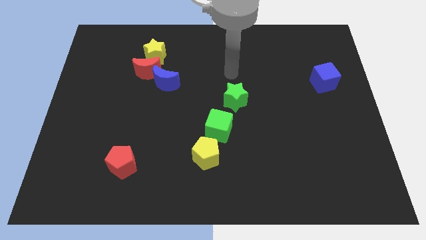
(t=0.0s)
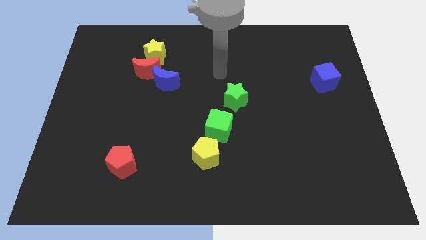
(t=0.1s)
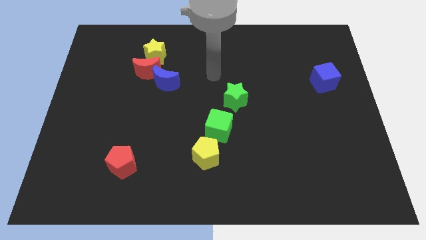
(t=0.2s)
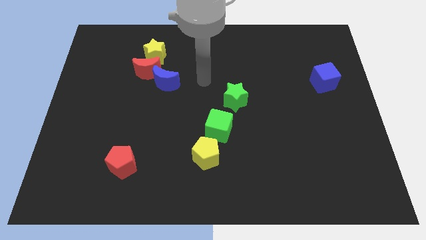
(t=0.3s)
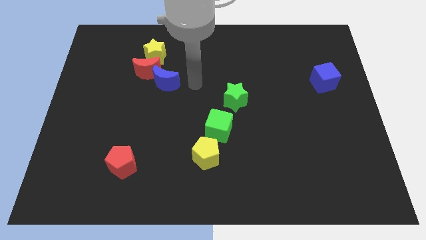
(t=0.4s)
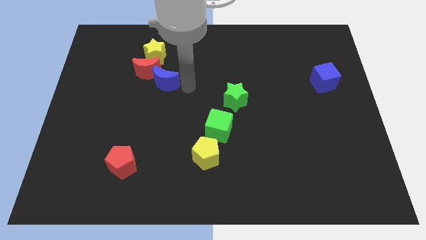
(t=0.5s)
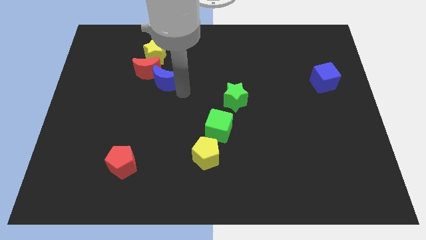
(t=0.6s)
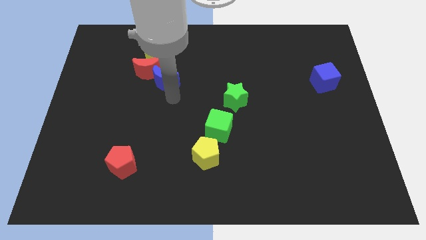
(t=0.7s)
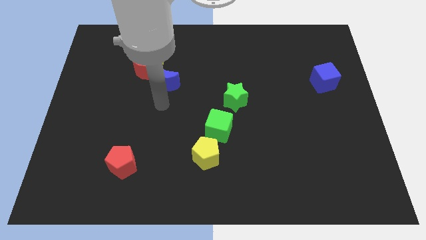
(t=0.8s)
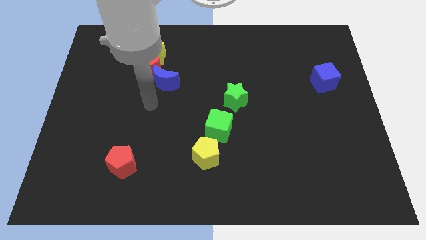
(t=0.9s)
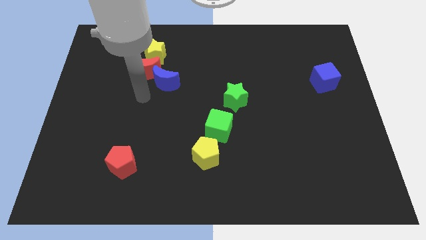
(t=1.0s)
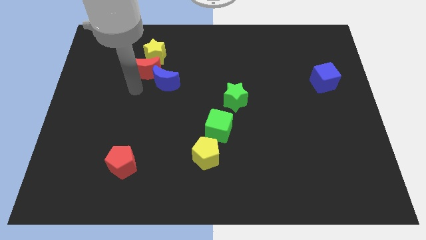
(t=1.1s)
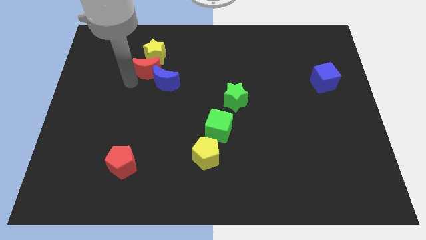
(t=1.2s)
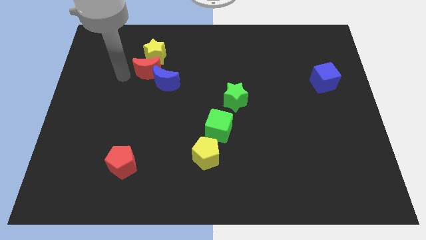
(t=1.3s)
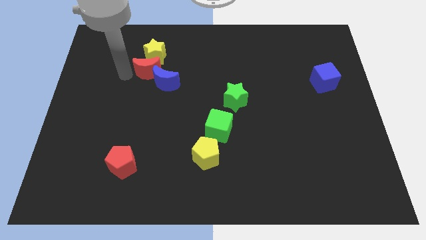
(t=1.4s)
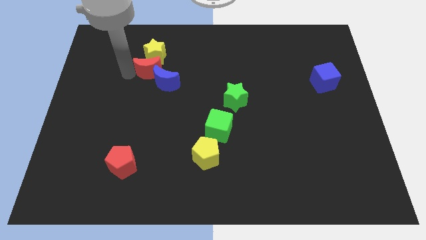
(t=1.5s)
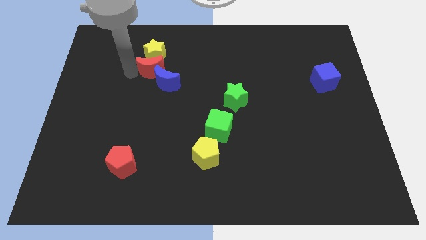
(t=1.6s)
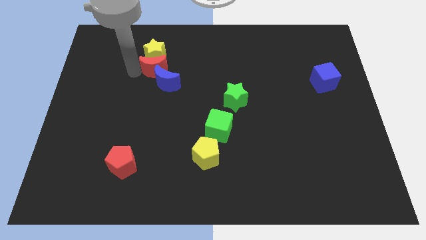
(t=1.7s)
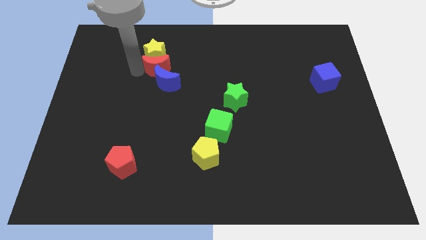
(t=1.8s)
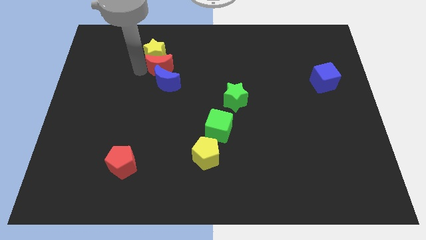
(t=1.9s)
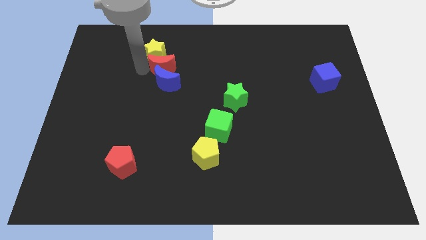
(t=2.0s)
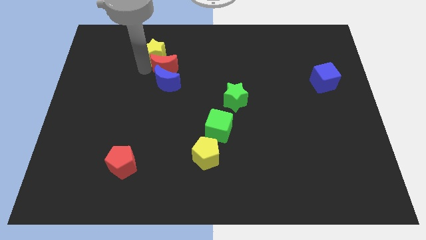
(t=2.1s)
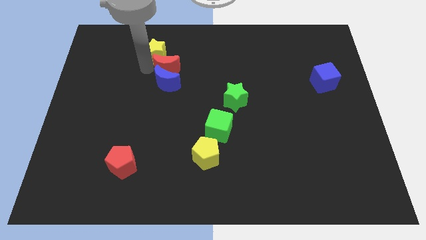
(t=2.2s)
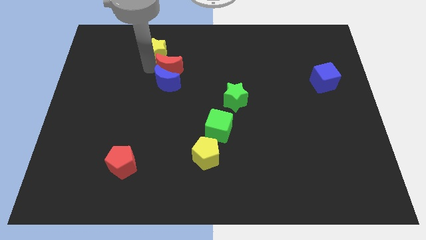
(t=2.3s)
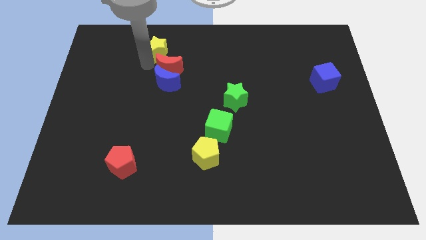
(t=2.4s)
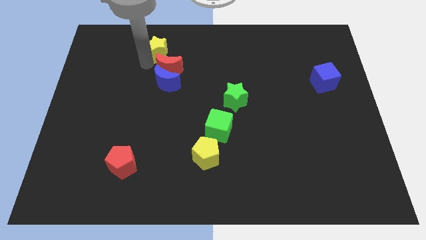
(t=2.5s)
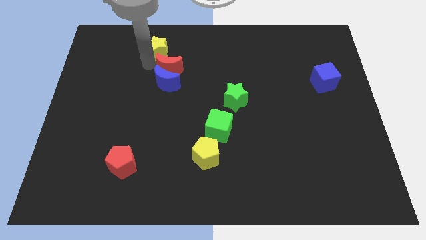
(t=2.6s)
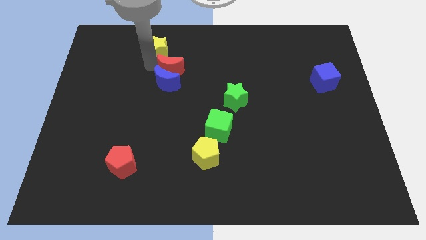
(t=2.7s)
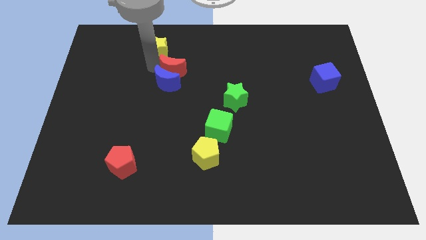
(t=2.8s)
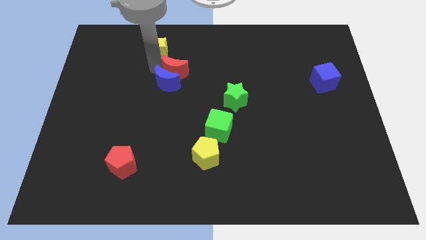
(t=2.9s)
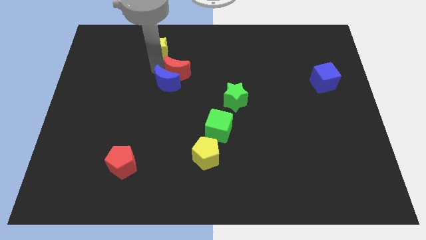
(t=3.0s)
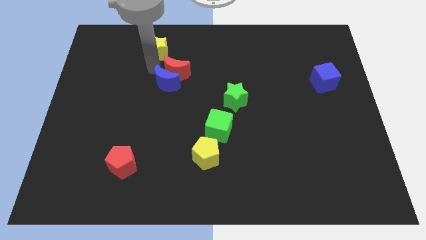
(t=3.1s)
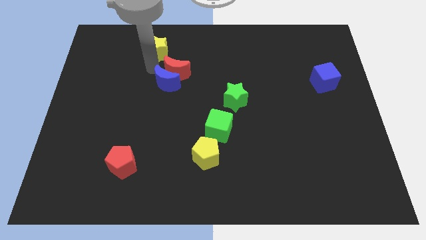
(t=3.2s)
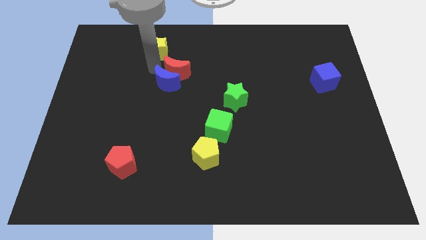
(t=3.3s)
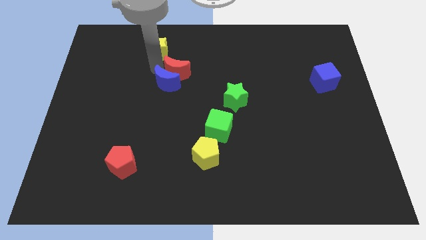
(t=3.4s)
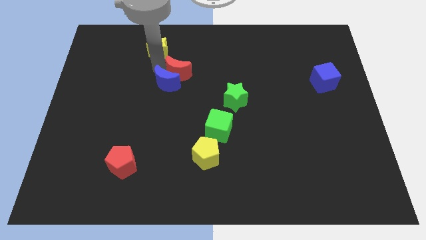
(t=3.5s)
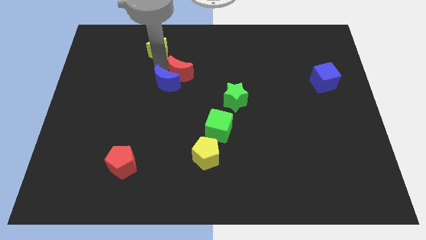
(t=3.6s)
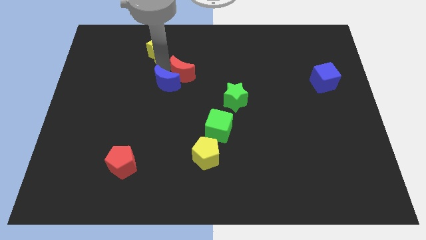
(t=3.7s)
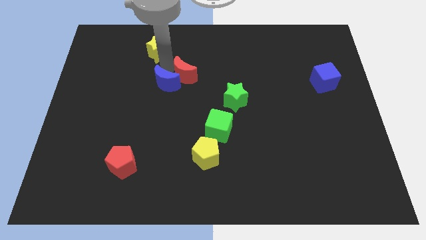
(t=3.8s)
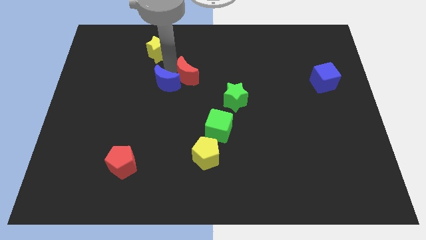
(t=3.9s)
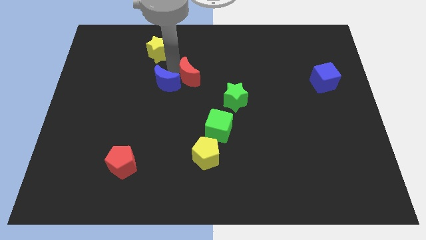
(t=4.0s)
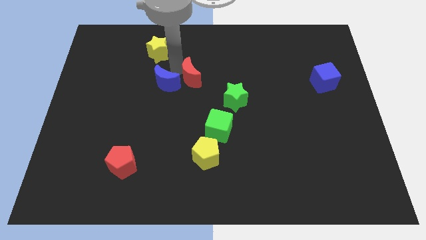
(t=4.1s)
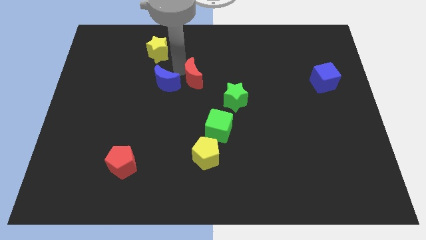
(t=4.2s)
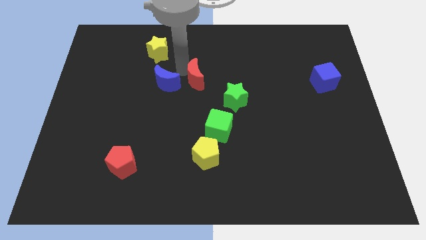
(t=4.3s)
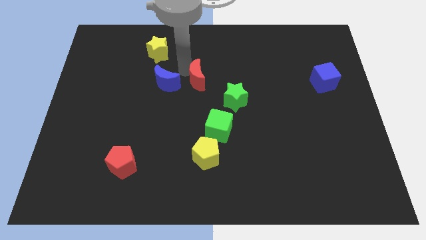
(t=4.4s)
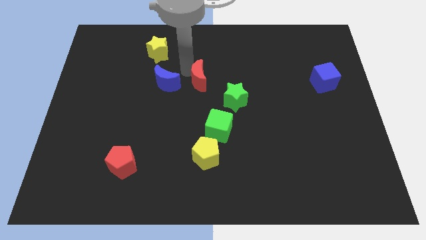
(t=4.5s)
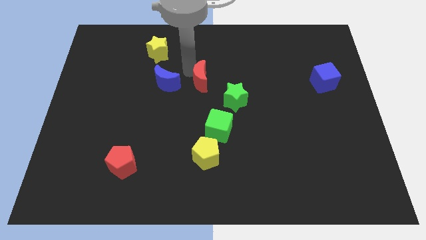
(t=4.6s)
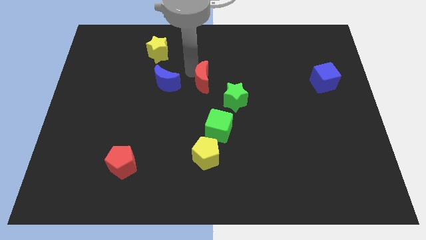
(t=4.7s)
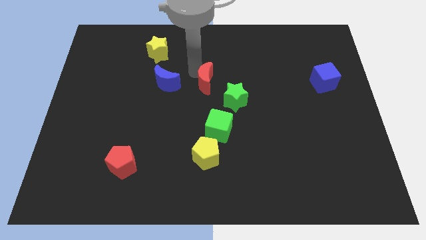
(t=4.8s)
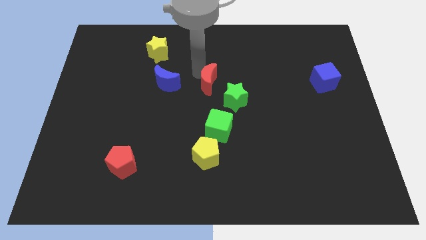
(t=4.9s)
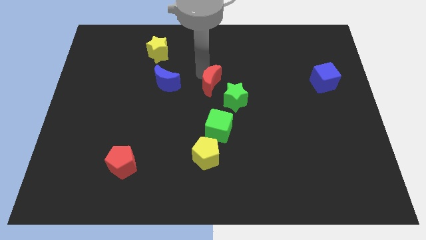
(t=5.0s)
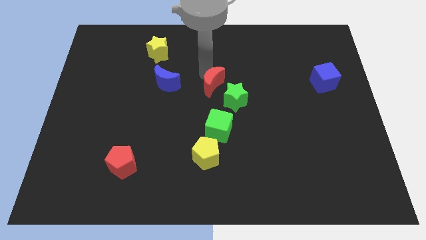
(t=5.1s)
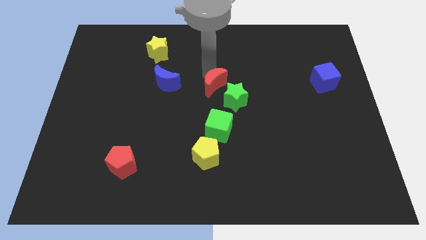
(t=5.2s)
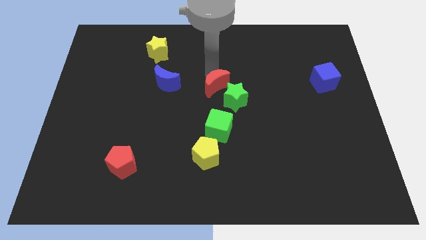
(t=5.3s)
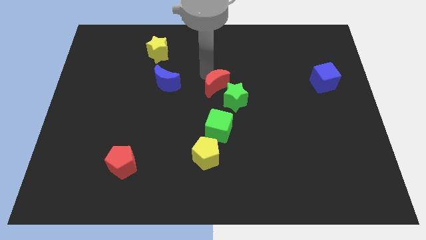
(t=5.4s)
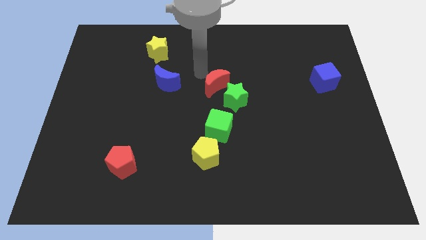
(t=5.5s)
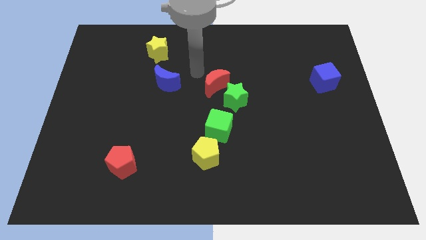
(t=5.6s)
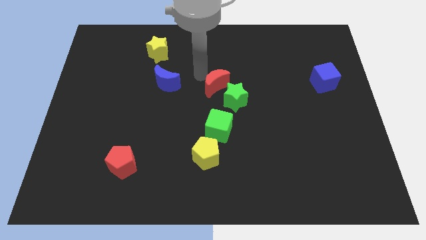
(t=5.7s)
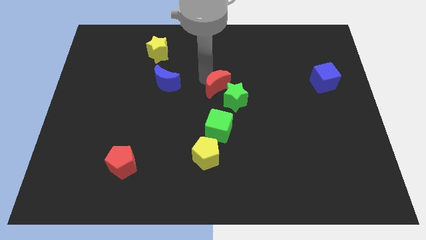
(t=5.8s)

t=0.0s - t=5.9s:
slide the red moon to the green star

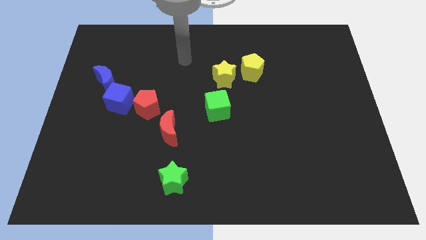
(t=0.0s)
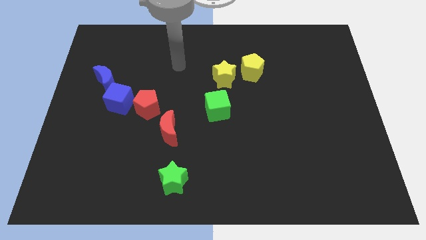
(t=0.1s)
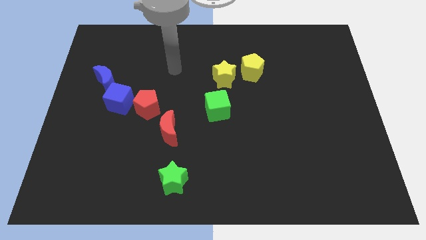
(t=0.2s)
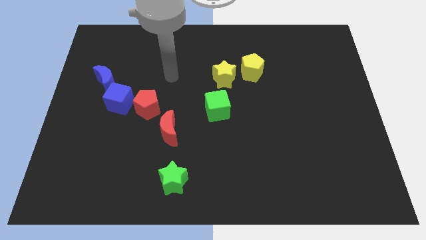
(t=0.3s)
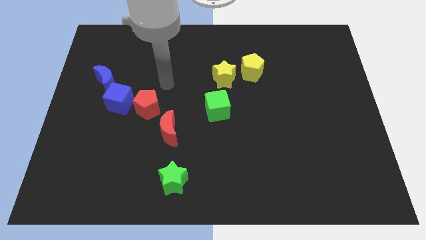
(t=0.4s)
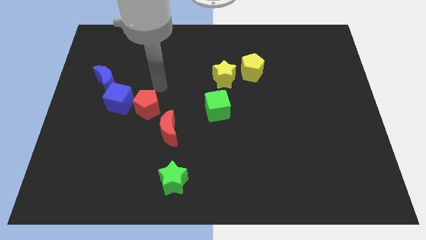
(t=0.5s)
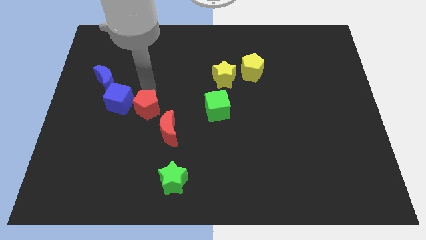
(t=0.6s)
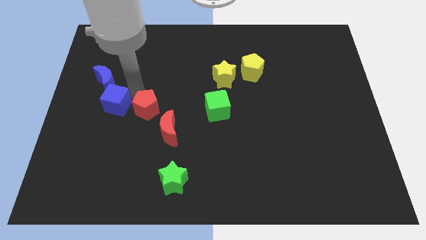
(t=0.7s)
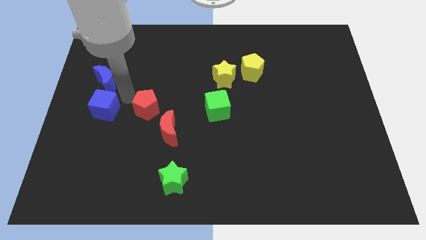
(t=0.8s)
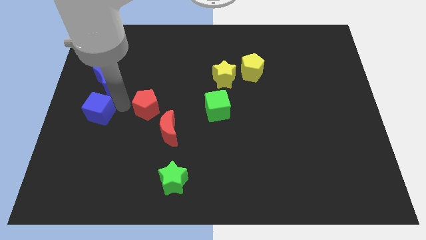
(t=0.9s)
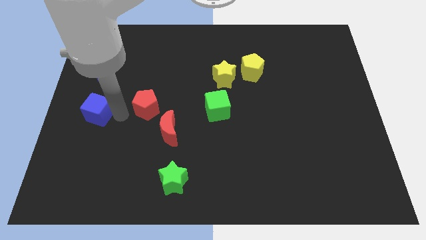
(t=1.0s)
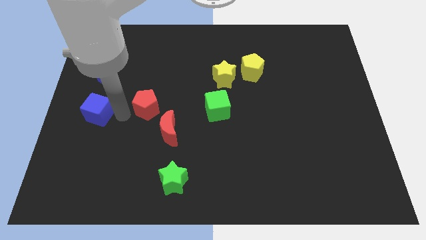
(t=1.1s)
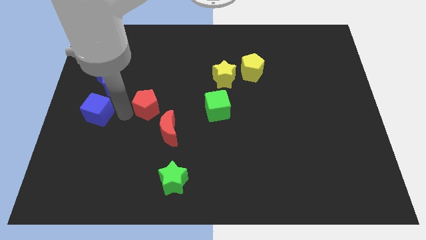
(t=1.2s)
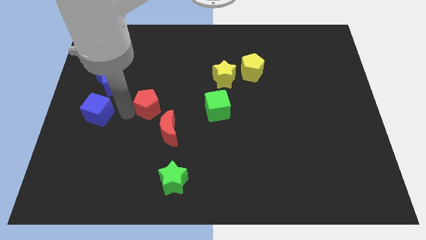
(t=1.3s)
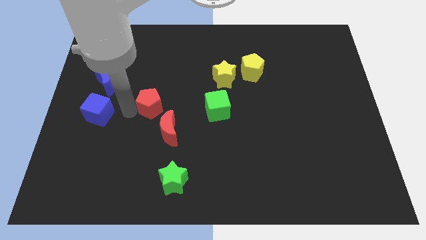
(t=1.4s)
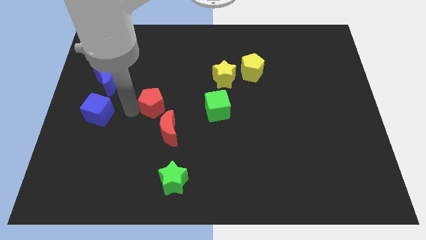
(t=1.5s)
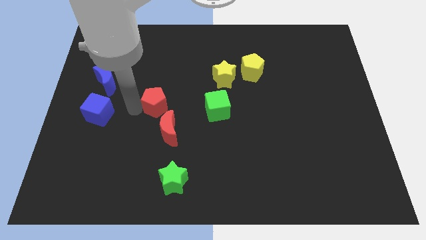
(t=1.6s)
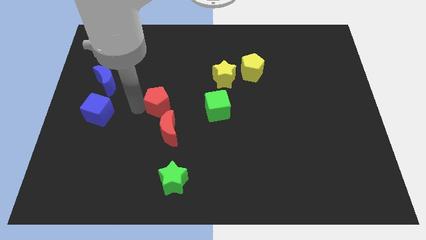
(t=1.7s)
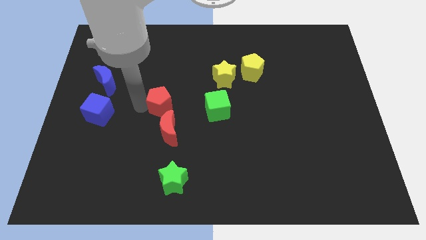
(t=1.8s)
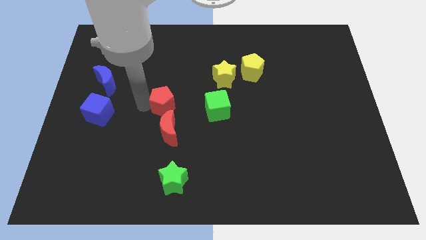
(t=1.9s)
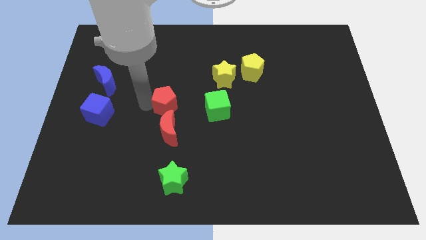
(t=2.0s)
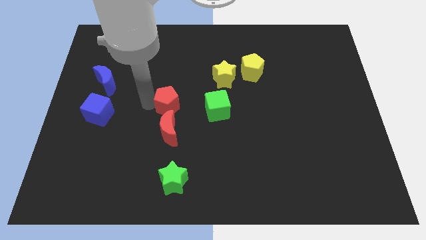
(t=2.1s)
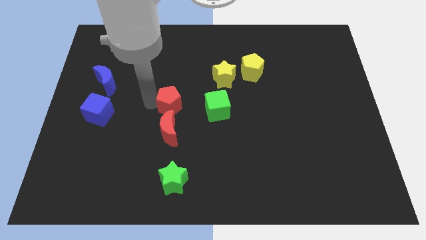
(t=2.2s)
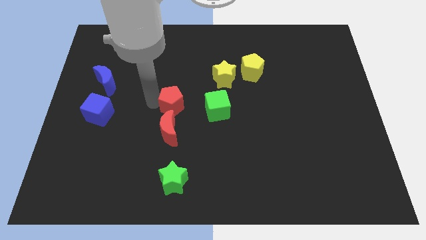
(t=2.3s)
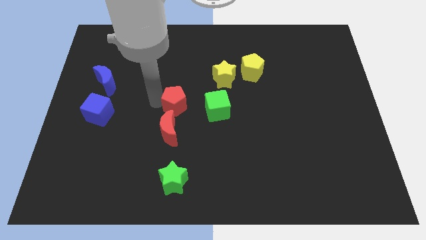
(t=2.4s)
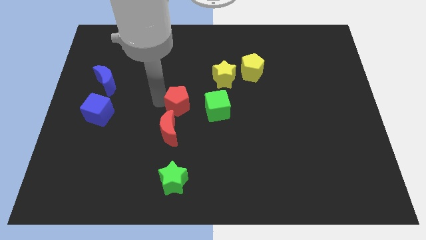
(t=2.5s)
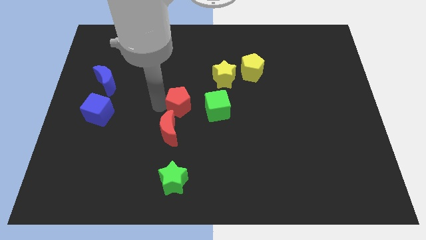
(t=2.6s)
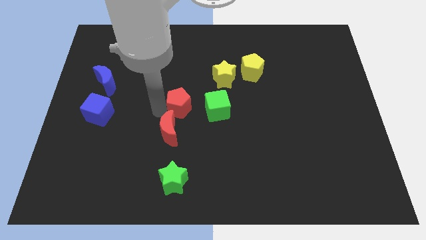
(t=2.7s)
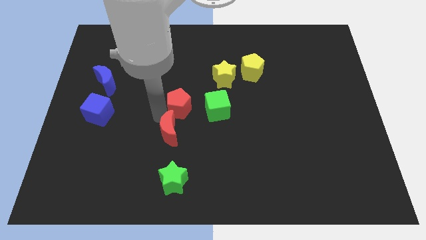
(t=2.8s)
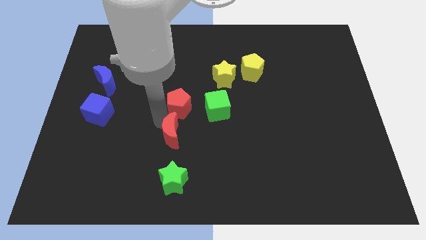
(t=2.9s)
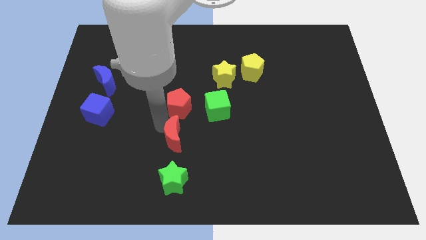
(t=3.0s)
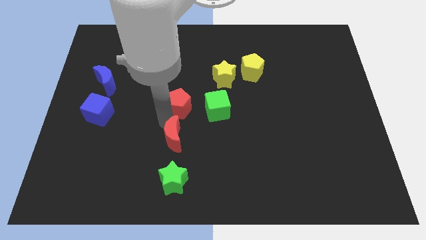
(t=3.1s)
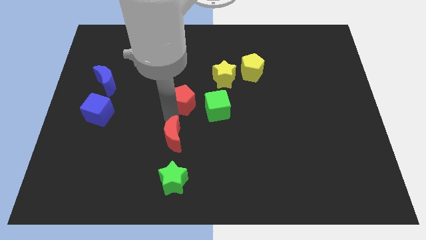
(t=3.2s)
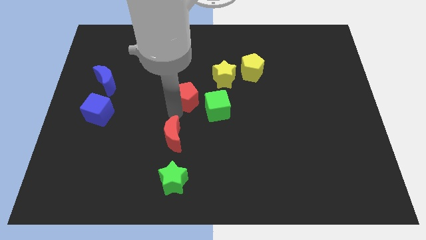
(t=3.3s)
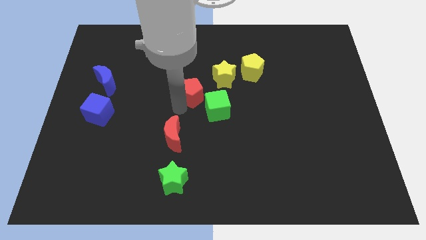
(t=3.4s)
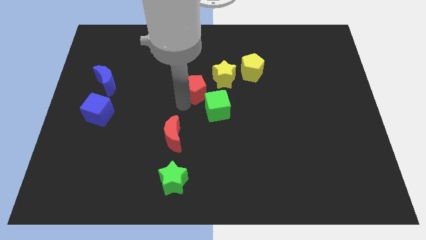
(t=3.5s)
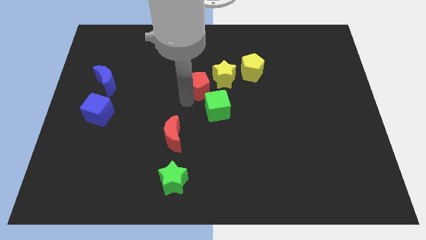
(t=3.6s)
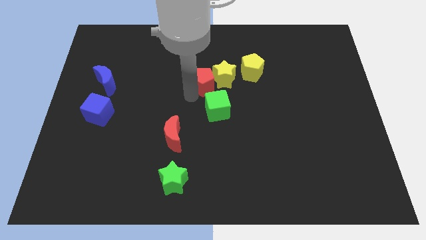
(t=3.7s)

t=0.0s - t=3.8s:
slide the red pentagon next to the yellow star
